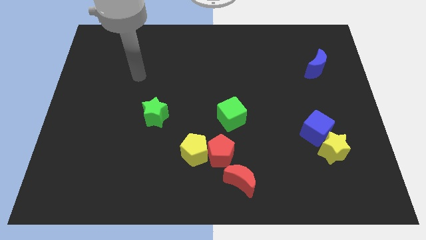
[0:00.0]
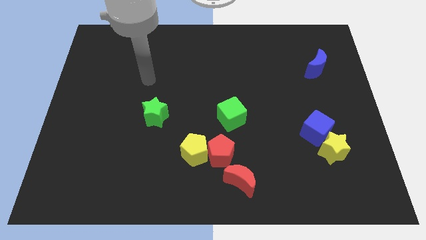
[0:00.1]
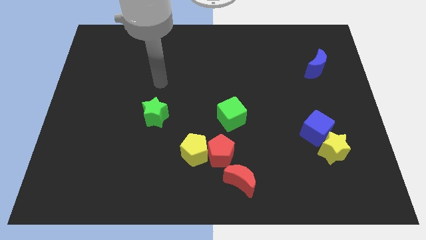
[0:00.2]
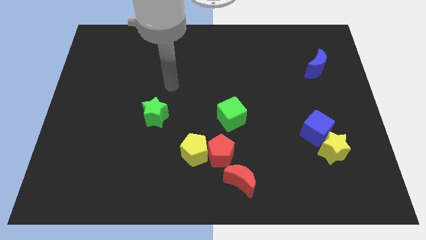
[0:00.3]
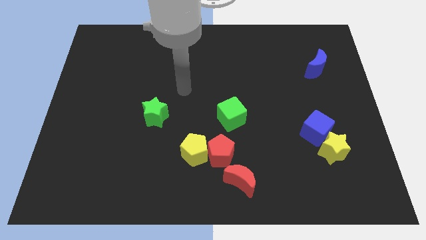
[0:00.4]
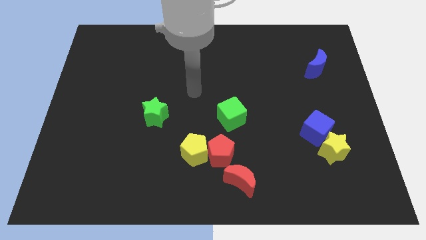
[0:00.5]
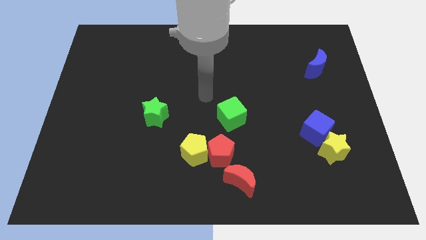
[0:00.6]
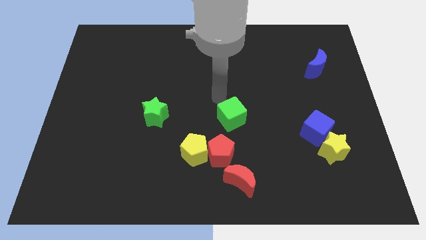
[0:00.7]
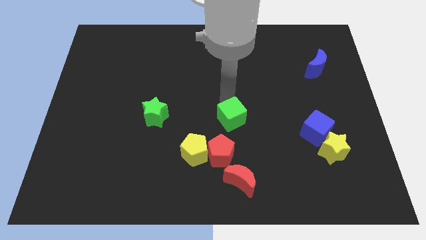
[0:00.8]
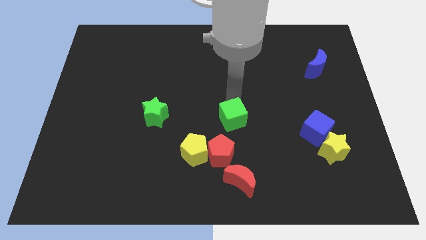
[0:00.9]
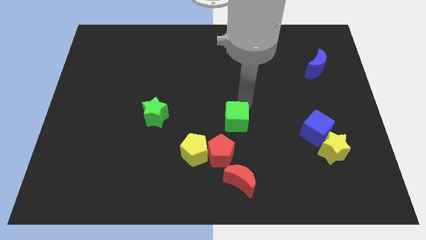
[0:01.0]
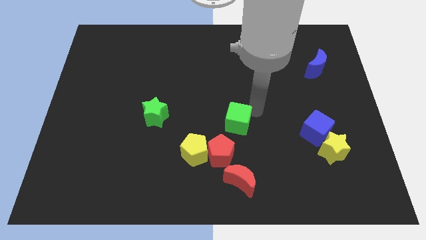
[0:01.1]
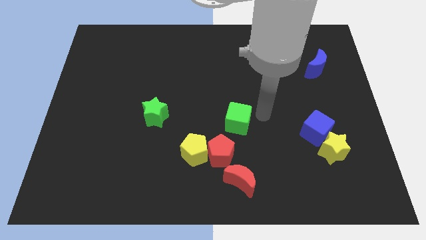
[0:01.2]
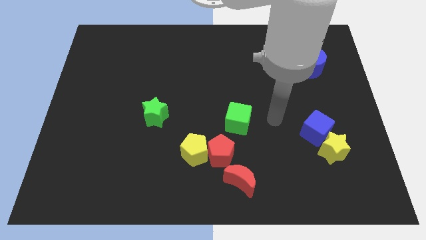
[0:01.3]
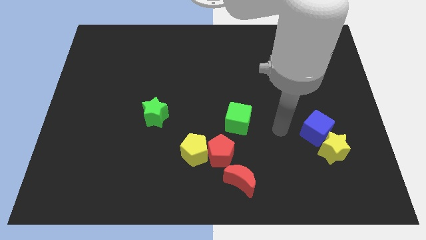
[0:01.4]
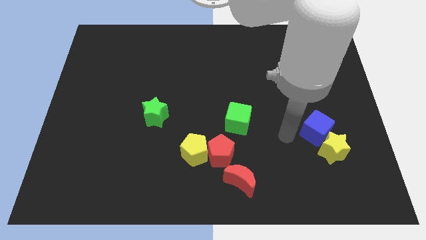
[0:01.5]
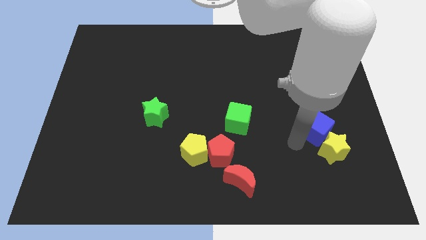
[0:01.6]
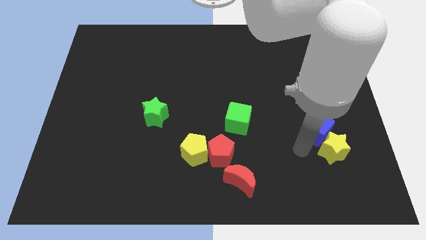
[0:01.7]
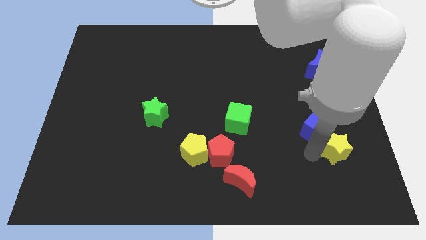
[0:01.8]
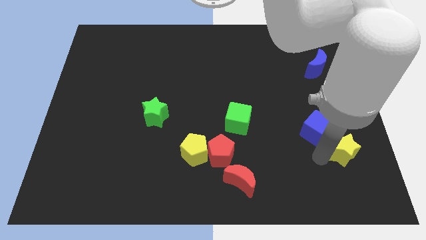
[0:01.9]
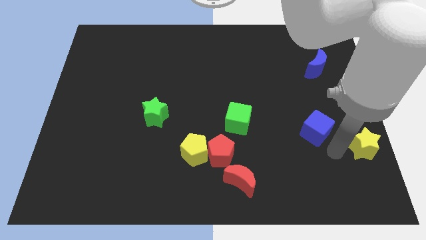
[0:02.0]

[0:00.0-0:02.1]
separate the blue cube from the yellow star

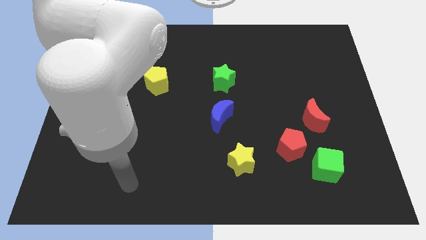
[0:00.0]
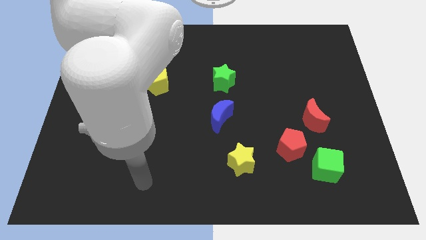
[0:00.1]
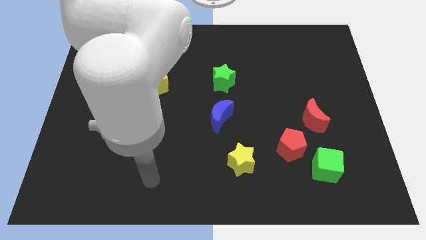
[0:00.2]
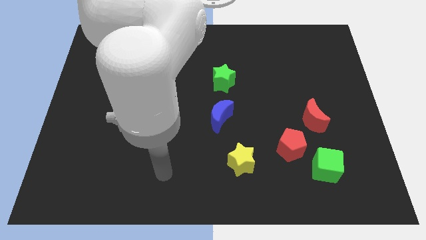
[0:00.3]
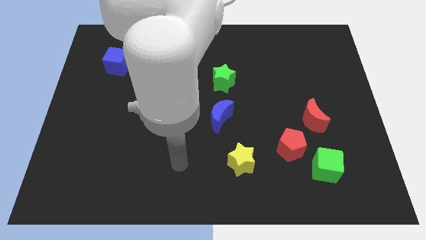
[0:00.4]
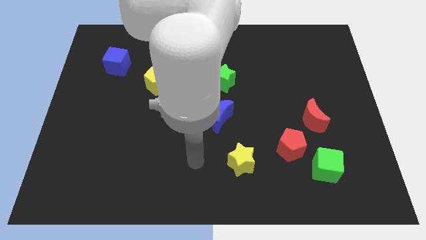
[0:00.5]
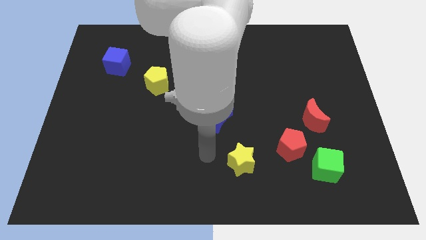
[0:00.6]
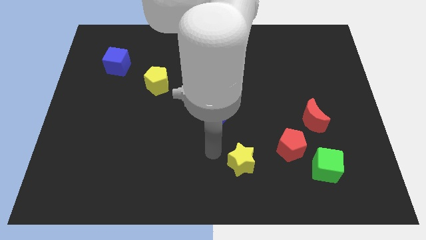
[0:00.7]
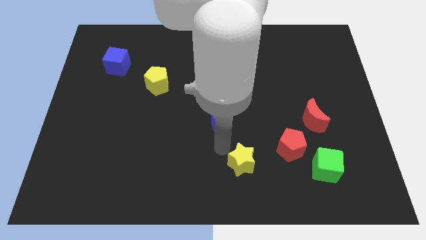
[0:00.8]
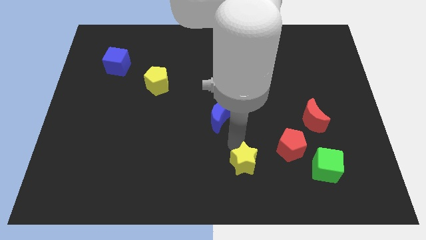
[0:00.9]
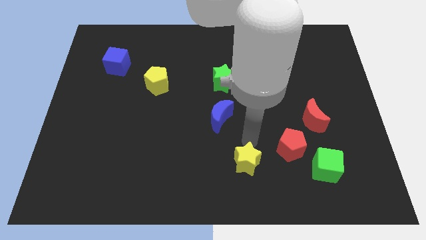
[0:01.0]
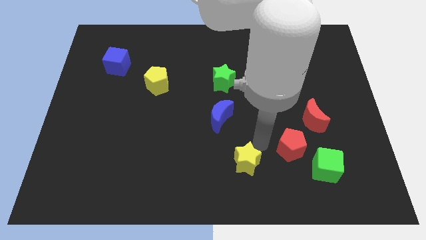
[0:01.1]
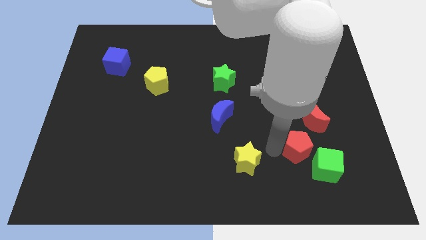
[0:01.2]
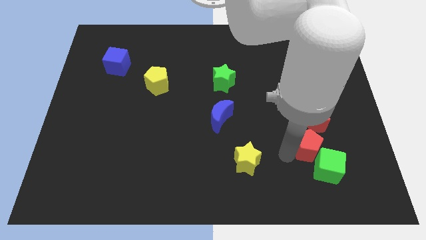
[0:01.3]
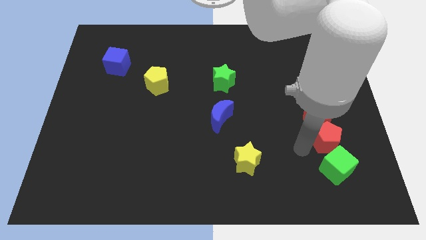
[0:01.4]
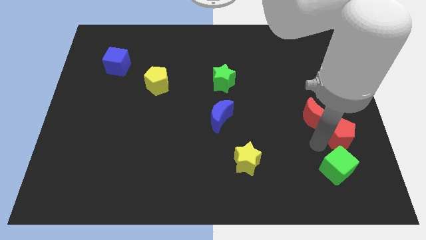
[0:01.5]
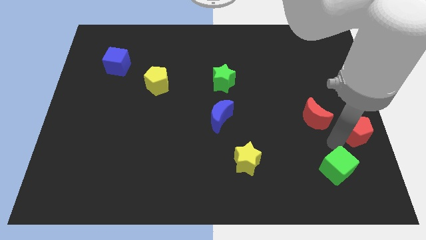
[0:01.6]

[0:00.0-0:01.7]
move the green cube away from the red pentagon

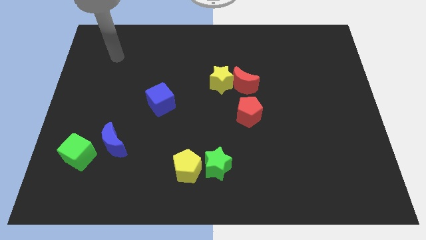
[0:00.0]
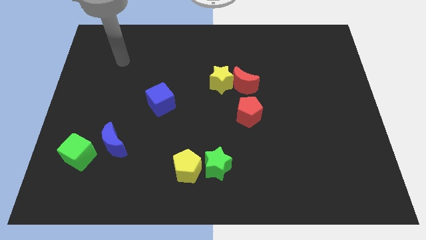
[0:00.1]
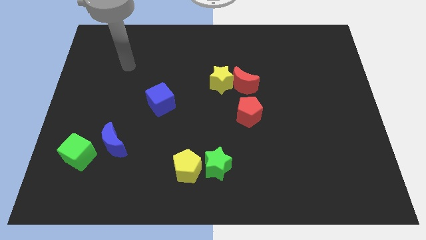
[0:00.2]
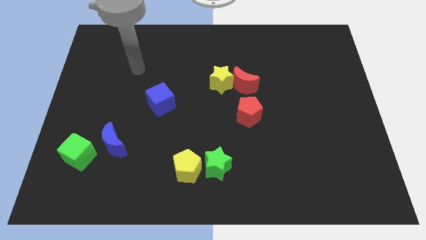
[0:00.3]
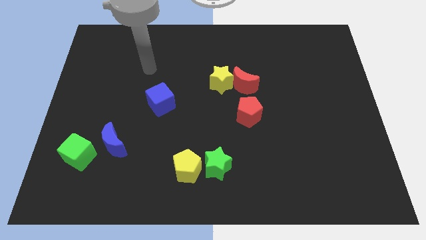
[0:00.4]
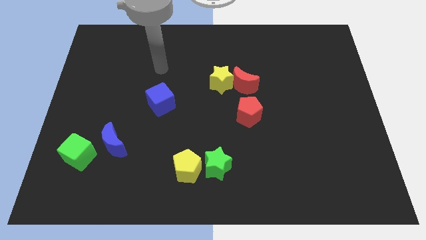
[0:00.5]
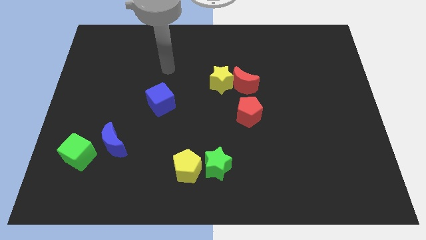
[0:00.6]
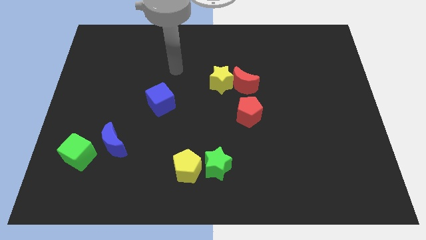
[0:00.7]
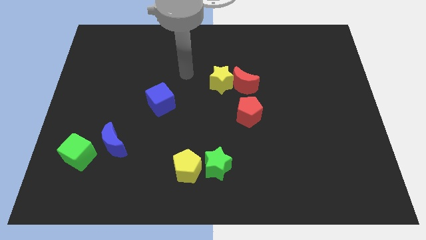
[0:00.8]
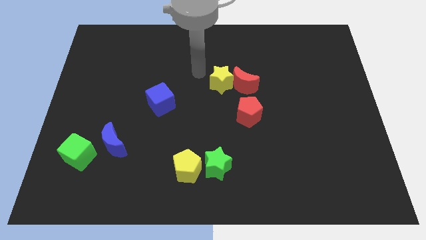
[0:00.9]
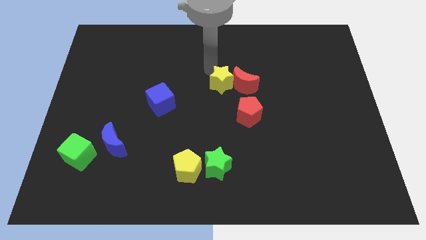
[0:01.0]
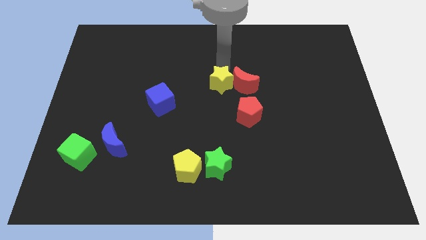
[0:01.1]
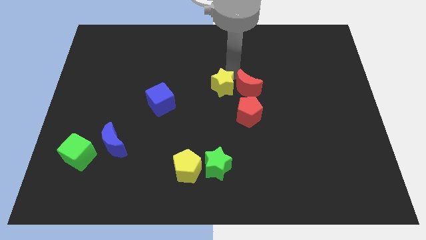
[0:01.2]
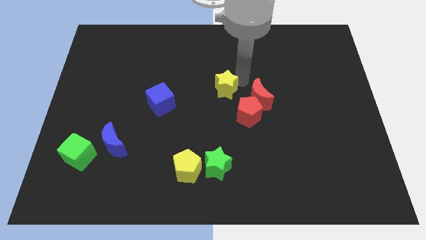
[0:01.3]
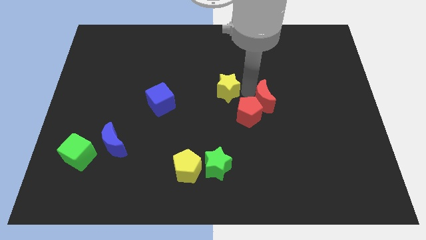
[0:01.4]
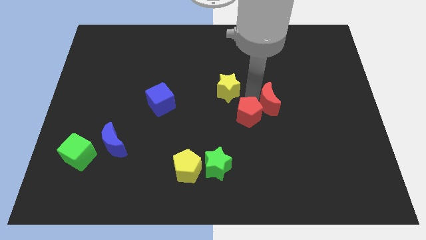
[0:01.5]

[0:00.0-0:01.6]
move the yellow star away from the red moon

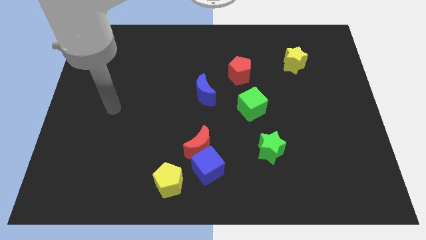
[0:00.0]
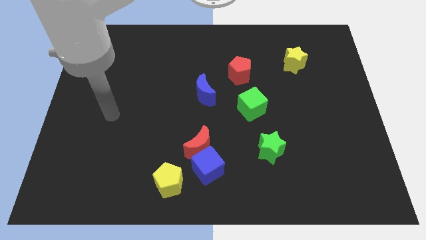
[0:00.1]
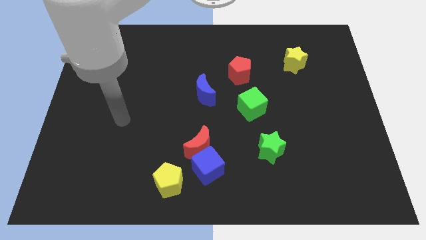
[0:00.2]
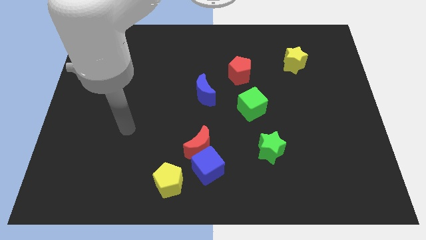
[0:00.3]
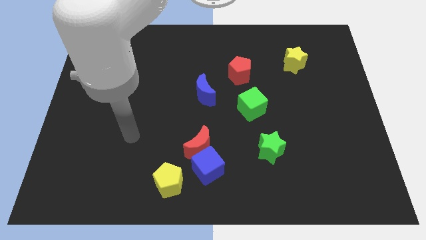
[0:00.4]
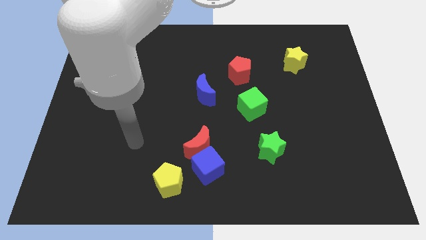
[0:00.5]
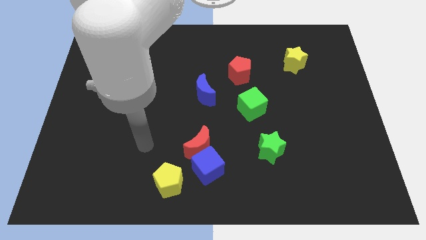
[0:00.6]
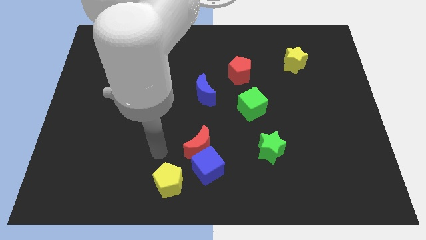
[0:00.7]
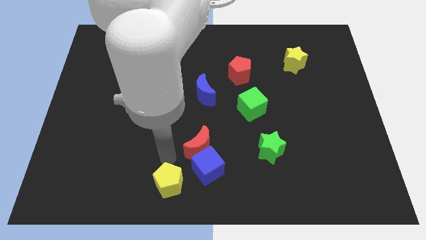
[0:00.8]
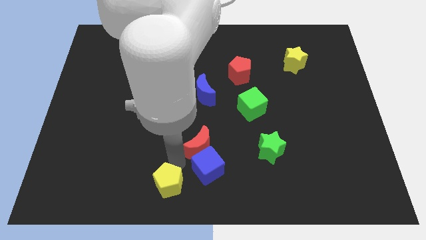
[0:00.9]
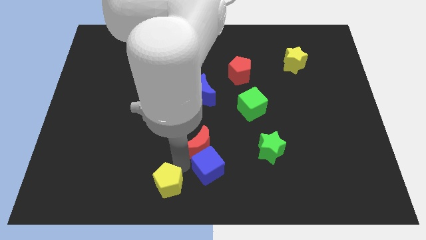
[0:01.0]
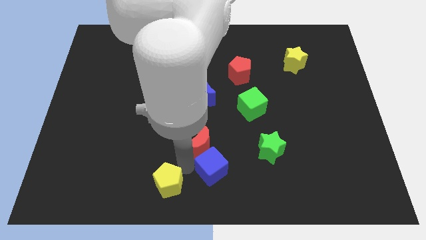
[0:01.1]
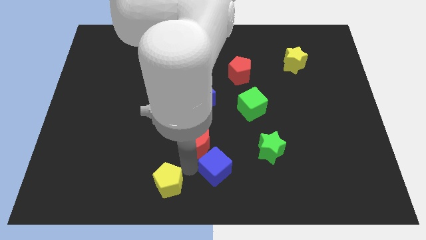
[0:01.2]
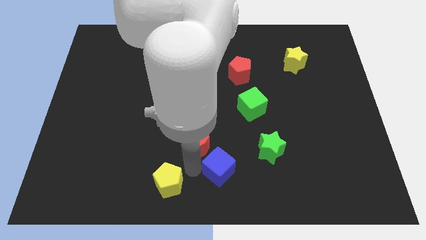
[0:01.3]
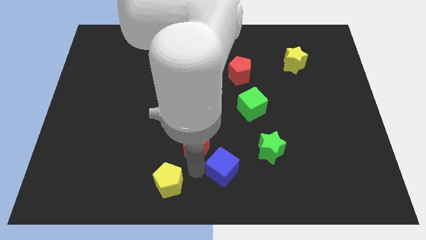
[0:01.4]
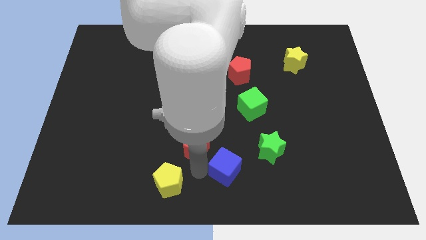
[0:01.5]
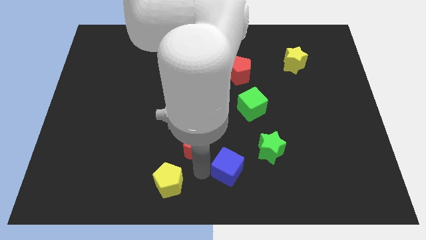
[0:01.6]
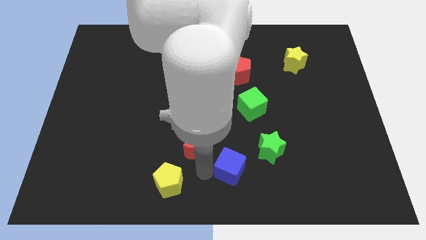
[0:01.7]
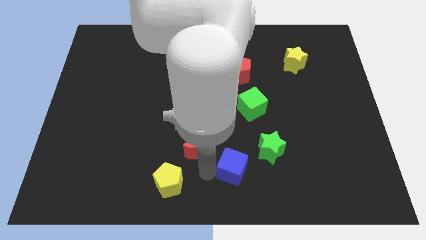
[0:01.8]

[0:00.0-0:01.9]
separate the blue cube from the red moon and yellow pentagon

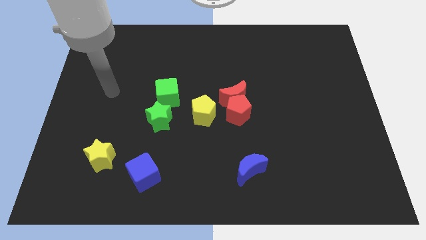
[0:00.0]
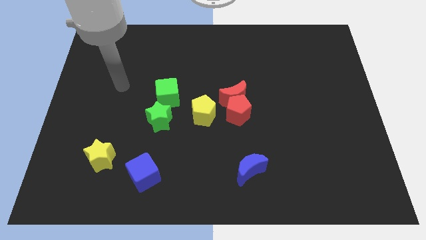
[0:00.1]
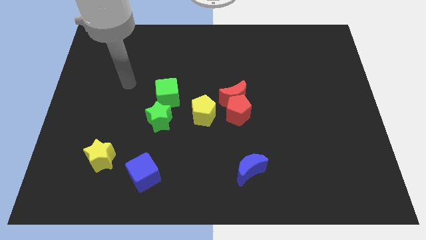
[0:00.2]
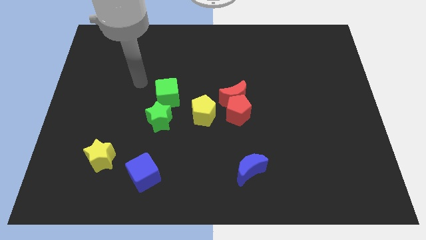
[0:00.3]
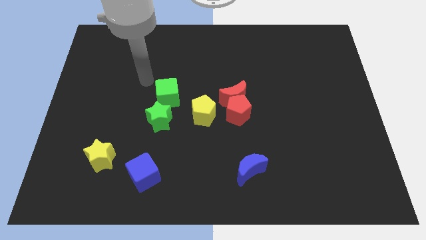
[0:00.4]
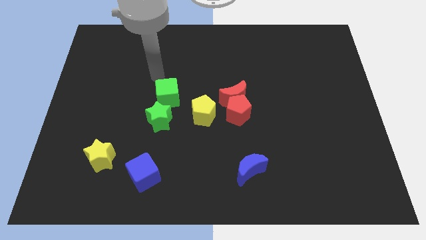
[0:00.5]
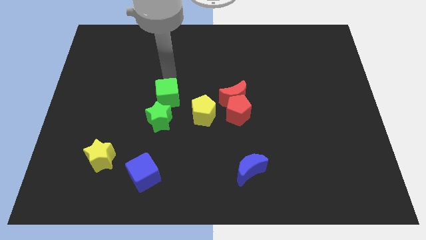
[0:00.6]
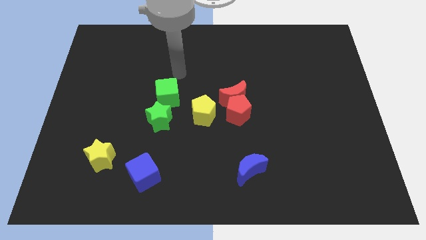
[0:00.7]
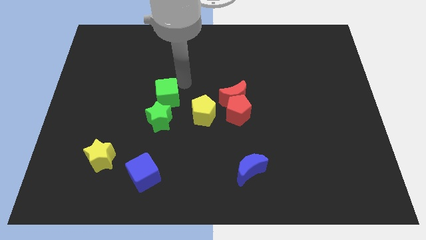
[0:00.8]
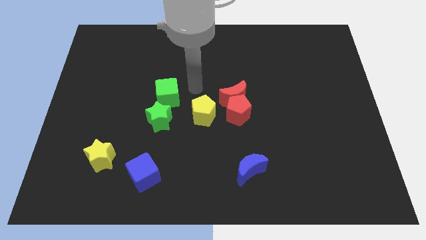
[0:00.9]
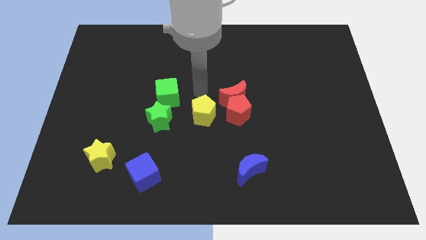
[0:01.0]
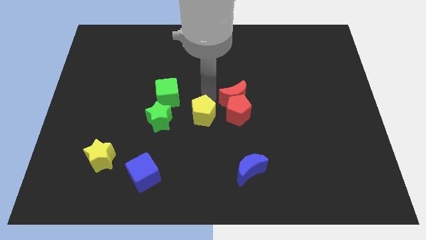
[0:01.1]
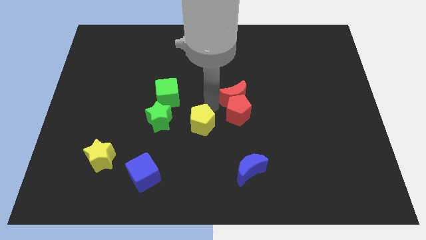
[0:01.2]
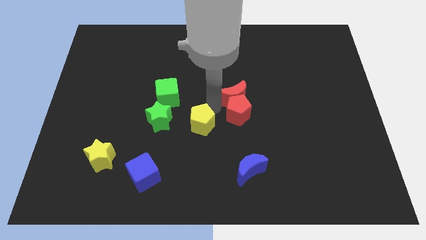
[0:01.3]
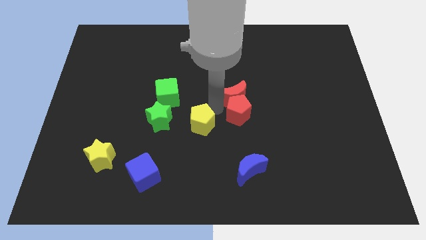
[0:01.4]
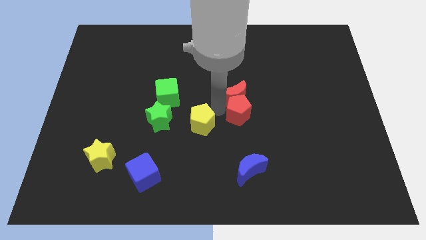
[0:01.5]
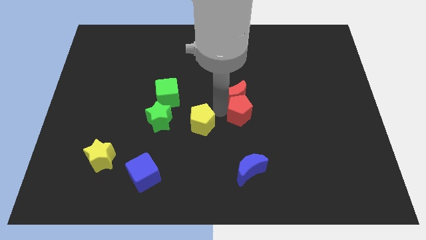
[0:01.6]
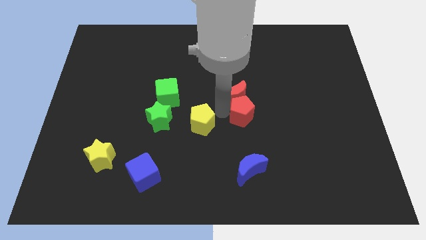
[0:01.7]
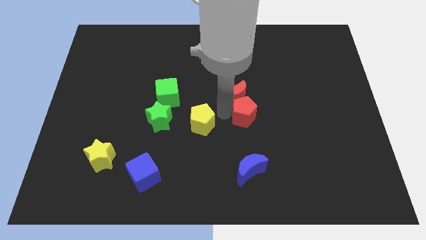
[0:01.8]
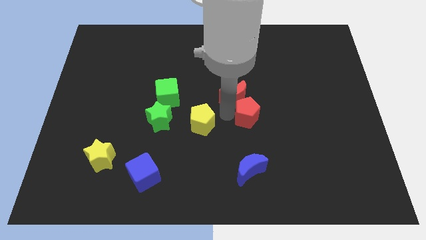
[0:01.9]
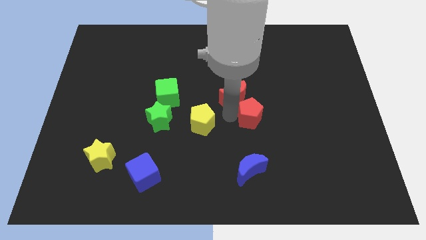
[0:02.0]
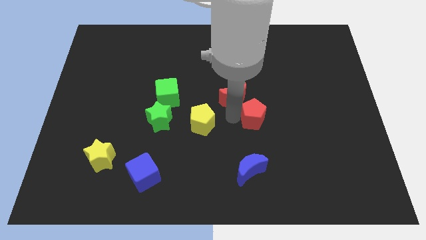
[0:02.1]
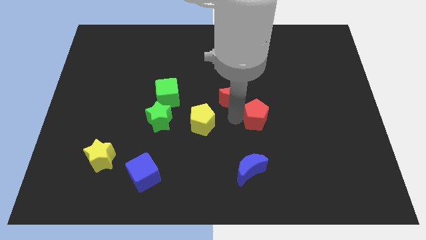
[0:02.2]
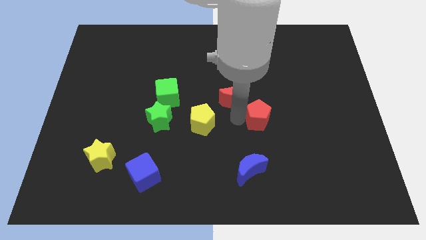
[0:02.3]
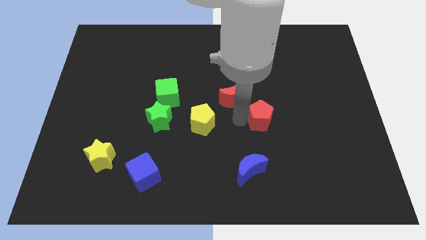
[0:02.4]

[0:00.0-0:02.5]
separate the red pentagon from the red moon and yellow pentagon
